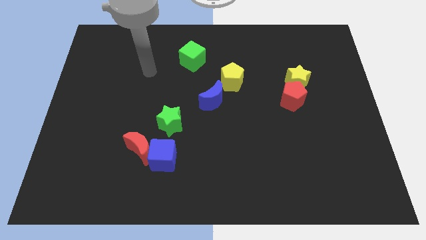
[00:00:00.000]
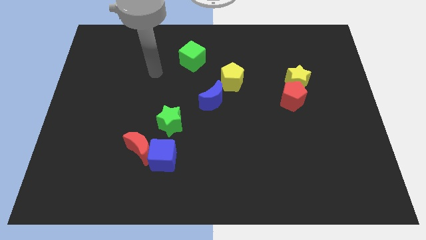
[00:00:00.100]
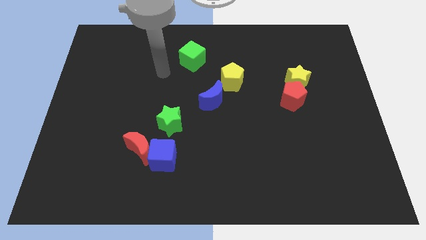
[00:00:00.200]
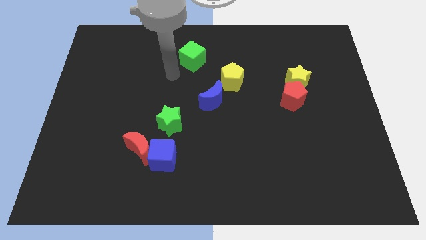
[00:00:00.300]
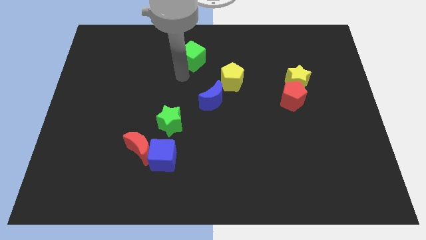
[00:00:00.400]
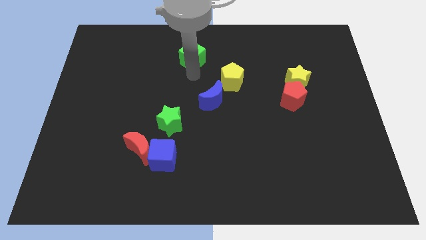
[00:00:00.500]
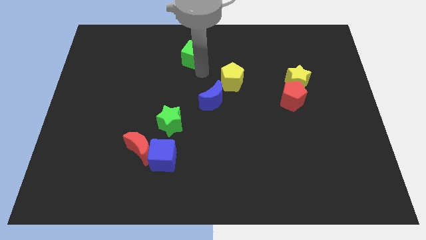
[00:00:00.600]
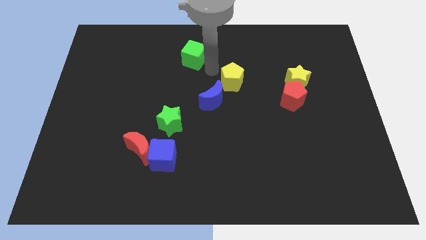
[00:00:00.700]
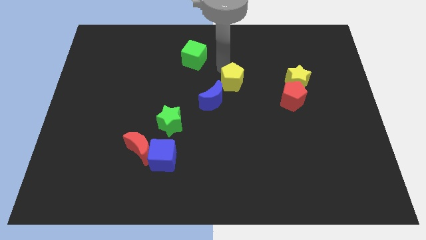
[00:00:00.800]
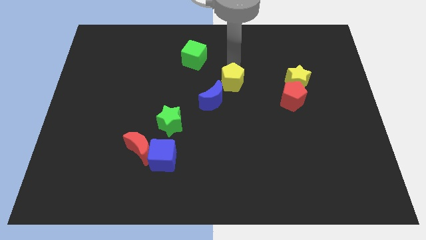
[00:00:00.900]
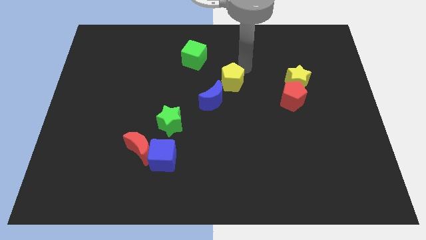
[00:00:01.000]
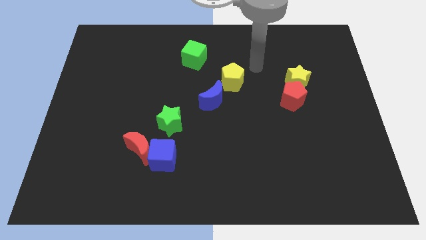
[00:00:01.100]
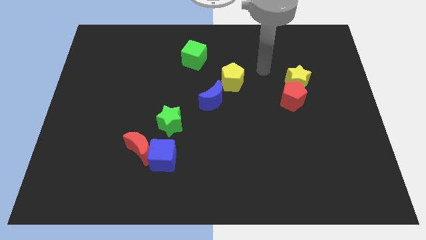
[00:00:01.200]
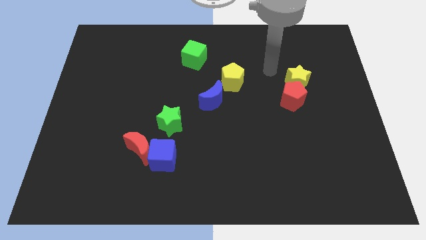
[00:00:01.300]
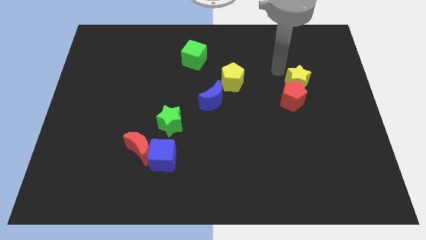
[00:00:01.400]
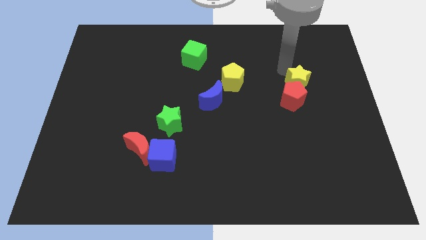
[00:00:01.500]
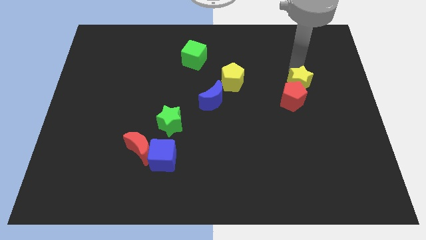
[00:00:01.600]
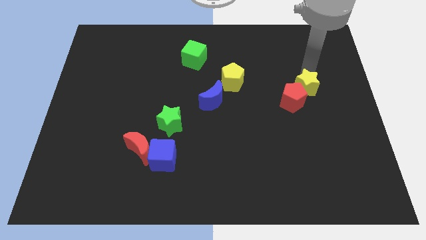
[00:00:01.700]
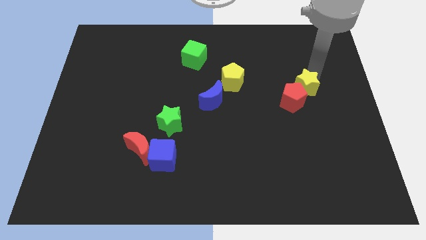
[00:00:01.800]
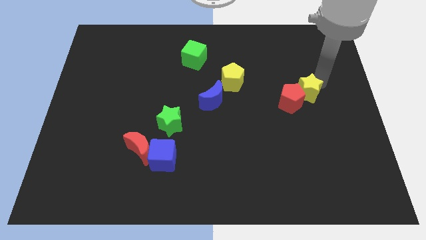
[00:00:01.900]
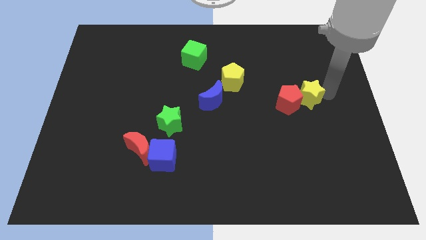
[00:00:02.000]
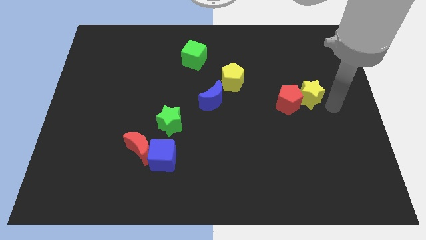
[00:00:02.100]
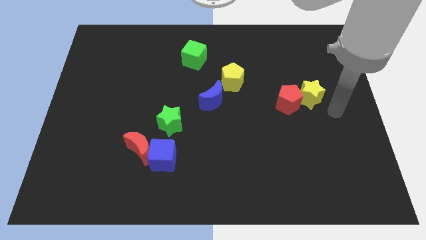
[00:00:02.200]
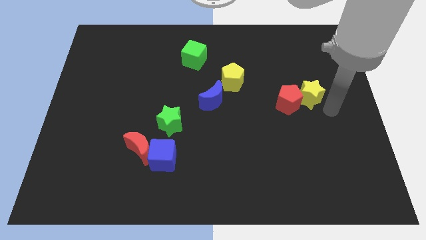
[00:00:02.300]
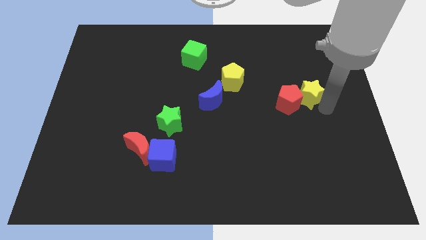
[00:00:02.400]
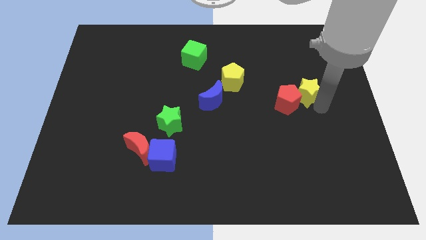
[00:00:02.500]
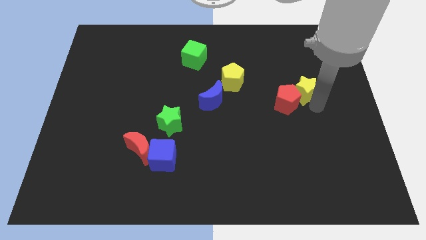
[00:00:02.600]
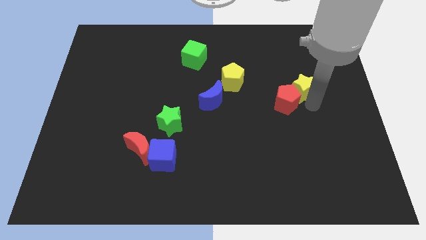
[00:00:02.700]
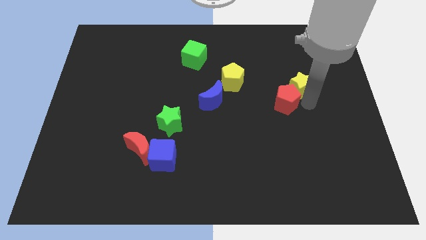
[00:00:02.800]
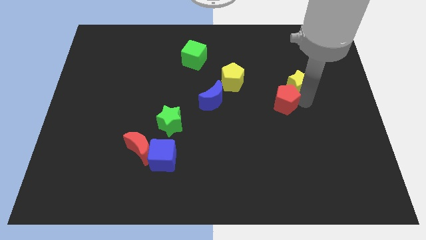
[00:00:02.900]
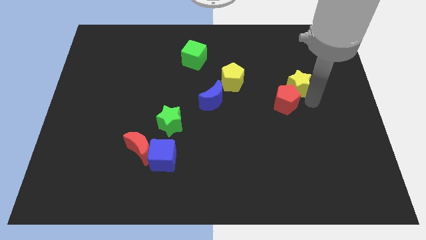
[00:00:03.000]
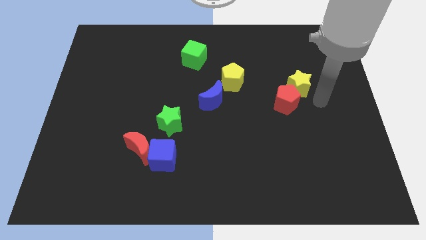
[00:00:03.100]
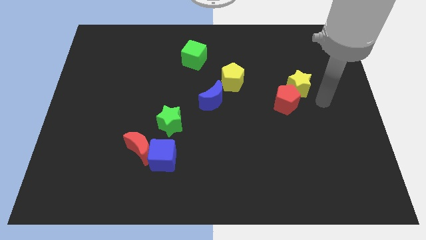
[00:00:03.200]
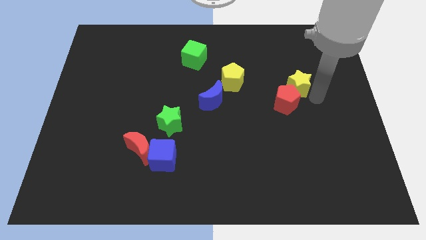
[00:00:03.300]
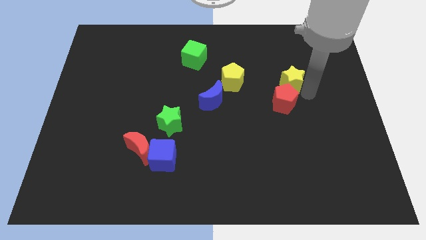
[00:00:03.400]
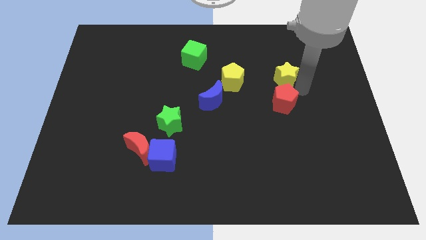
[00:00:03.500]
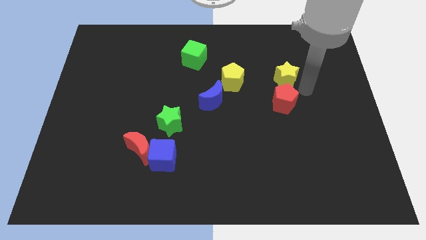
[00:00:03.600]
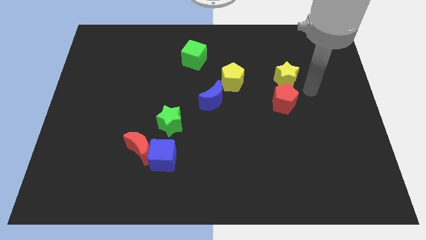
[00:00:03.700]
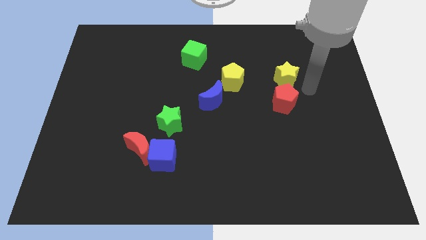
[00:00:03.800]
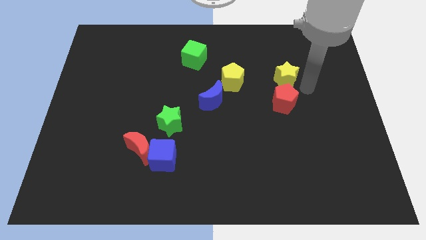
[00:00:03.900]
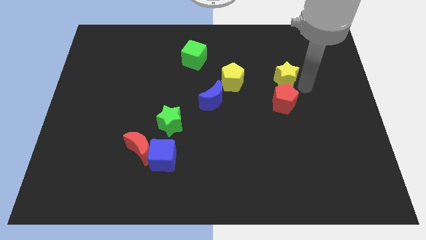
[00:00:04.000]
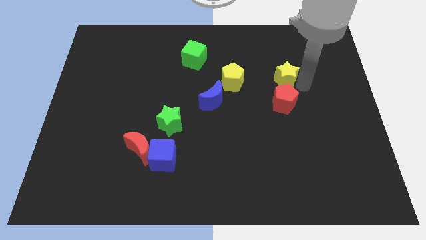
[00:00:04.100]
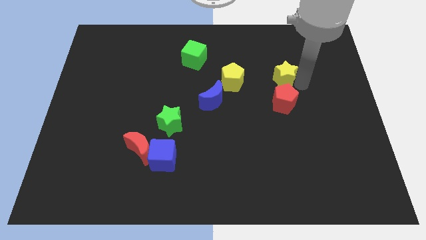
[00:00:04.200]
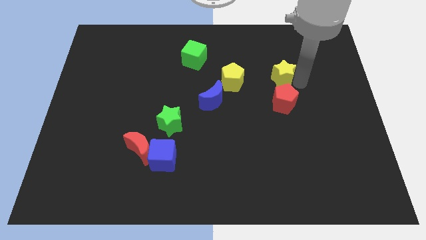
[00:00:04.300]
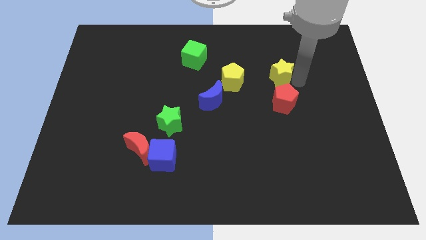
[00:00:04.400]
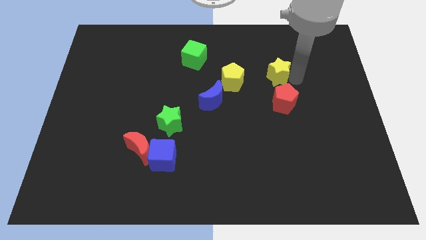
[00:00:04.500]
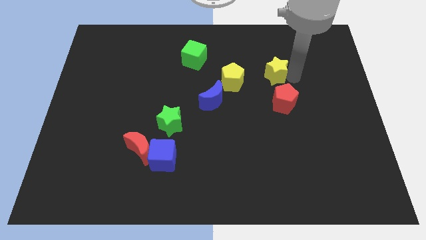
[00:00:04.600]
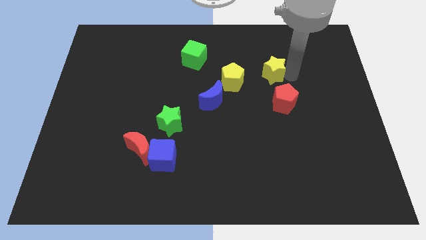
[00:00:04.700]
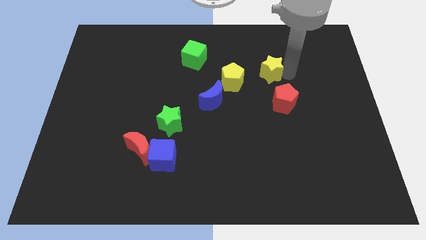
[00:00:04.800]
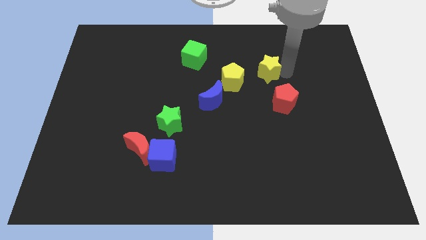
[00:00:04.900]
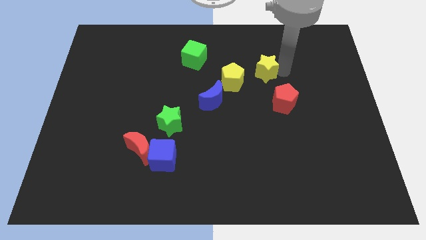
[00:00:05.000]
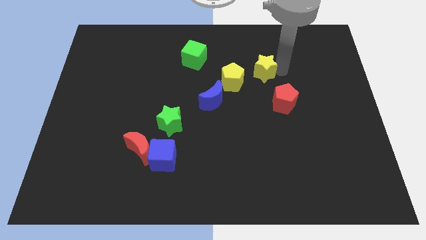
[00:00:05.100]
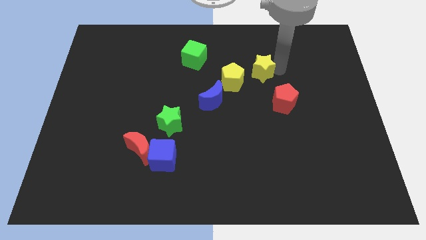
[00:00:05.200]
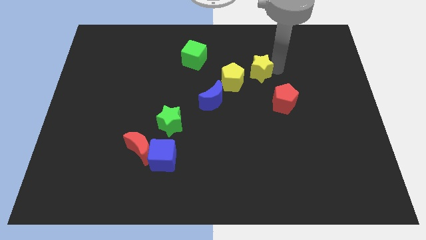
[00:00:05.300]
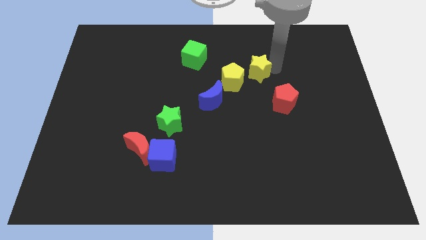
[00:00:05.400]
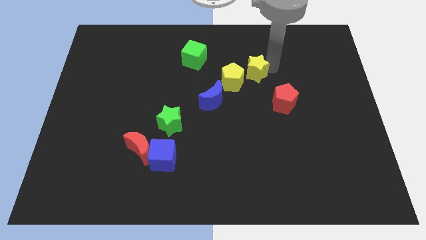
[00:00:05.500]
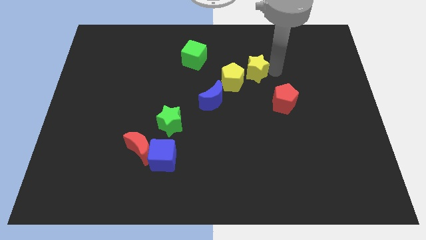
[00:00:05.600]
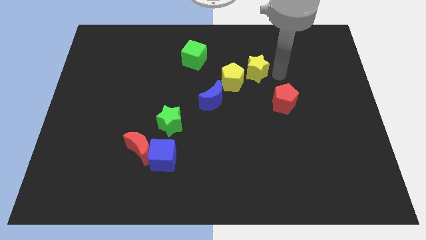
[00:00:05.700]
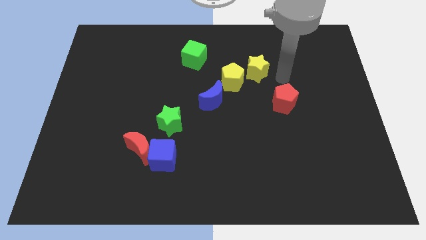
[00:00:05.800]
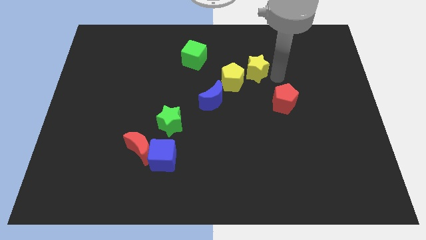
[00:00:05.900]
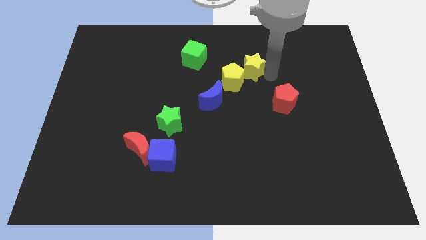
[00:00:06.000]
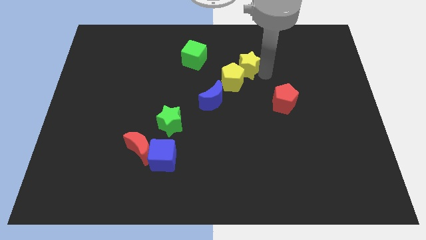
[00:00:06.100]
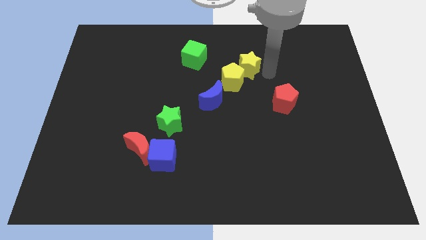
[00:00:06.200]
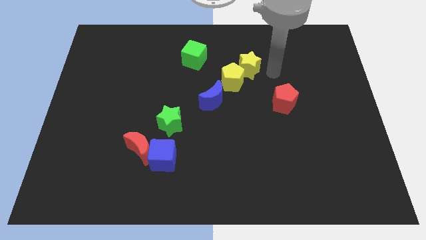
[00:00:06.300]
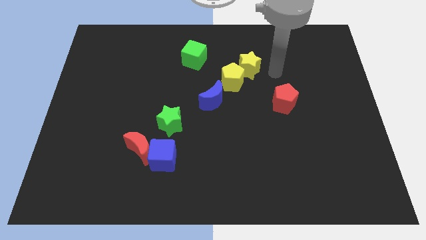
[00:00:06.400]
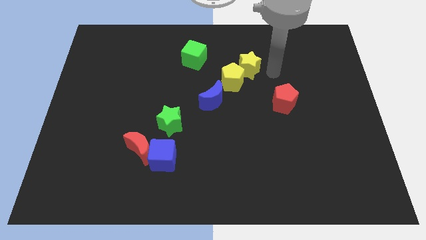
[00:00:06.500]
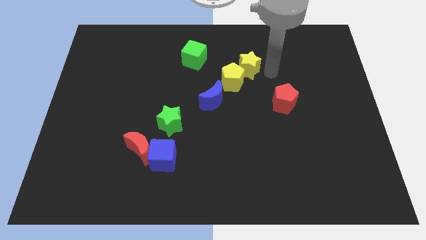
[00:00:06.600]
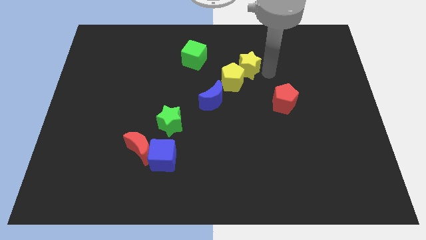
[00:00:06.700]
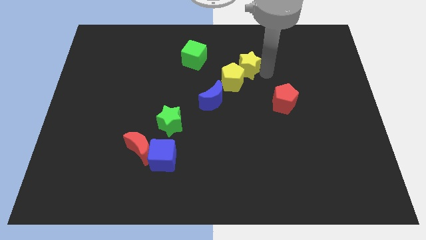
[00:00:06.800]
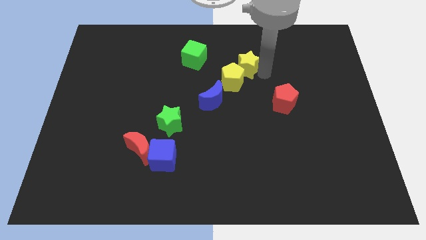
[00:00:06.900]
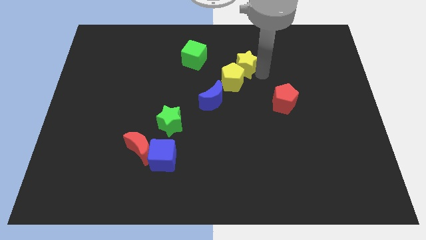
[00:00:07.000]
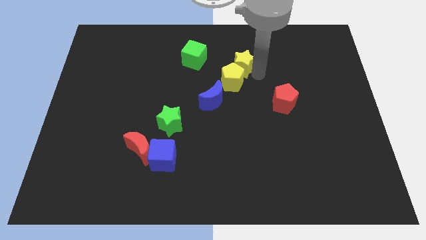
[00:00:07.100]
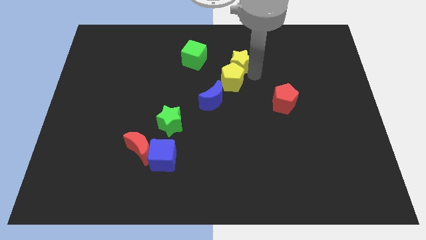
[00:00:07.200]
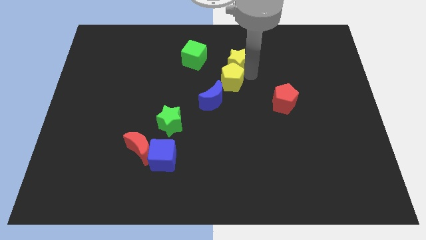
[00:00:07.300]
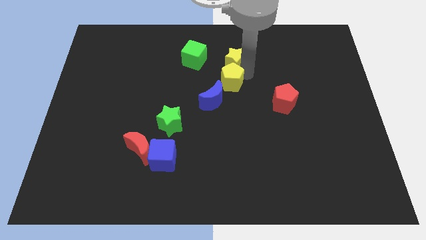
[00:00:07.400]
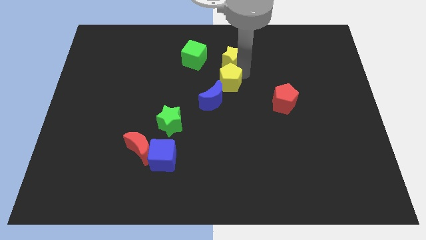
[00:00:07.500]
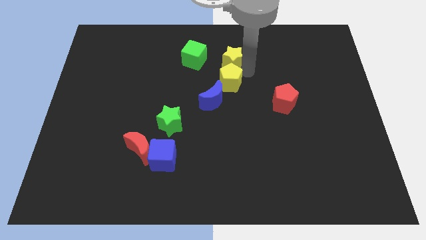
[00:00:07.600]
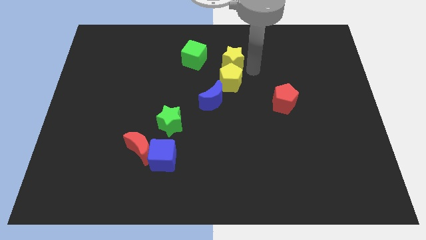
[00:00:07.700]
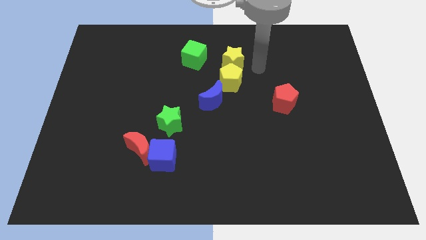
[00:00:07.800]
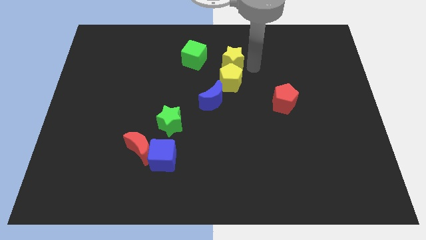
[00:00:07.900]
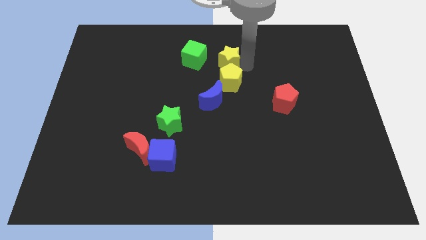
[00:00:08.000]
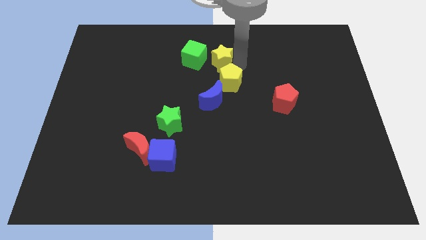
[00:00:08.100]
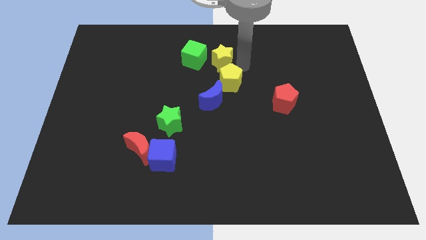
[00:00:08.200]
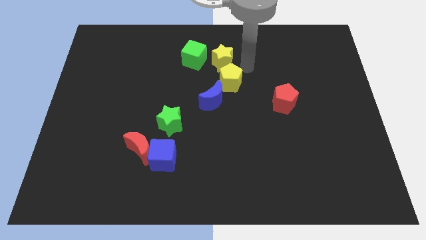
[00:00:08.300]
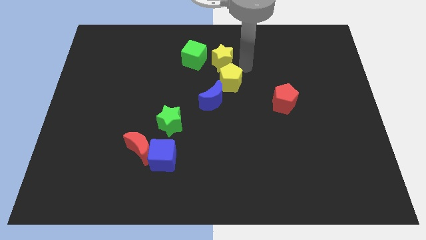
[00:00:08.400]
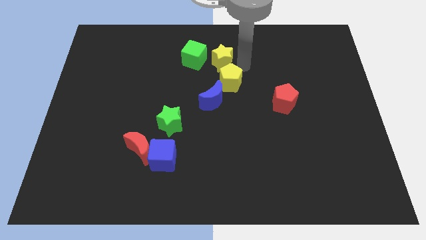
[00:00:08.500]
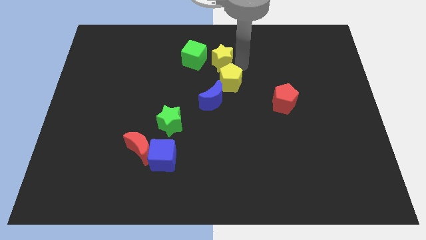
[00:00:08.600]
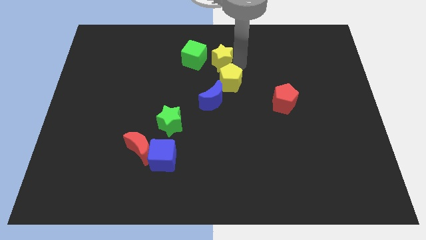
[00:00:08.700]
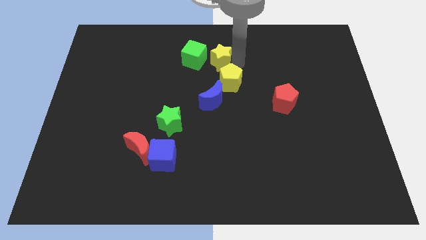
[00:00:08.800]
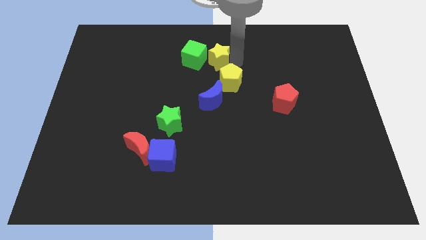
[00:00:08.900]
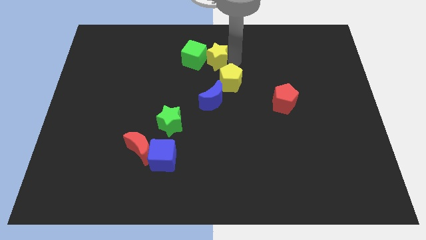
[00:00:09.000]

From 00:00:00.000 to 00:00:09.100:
move the yellow star close to the green cube
